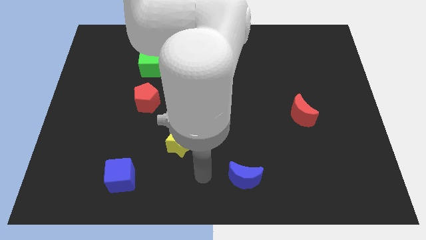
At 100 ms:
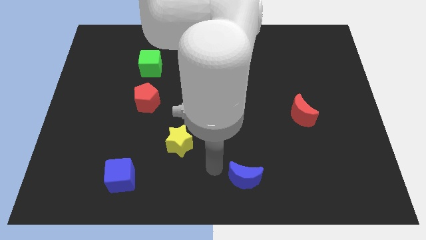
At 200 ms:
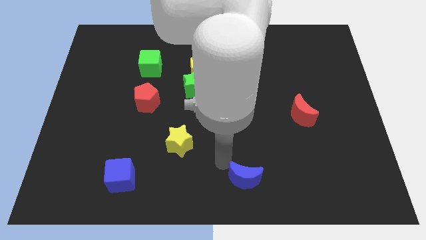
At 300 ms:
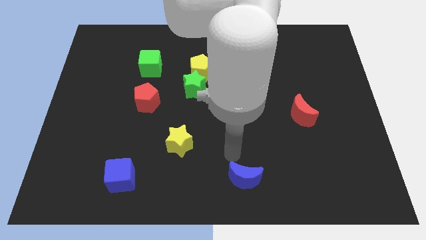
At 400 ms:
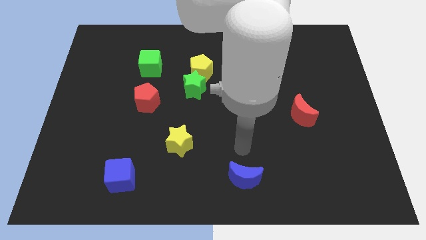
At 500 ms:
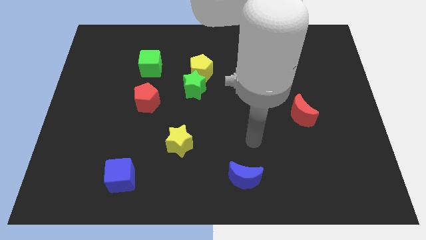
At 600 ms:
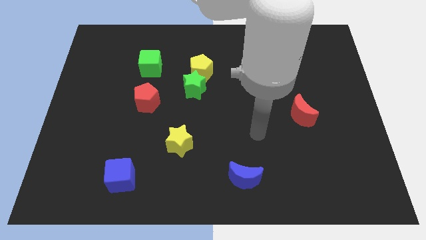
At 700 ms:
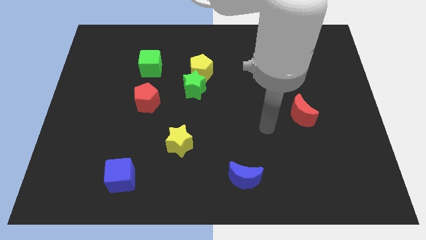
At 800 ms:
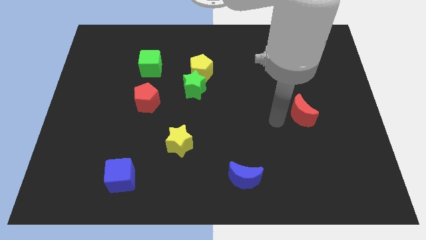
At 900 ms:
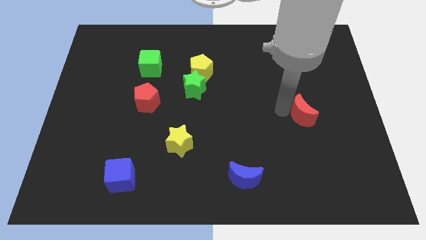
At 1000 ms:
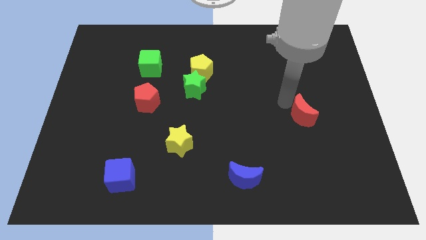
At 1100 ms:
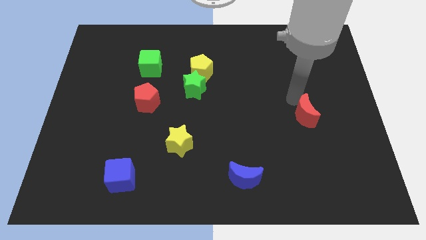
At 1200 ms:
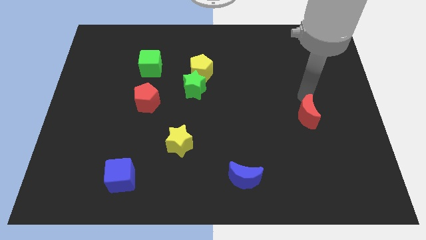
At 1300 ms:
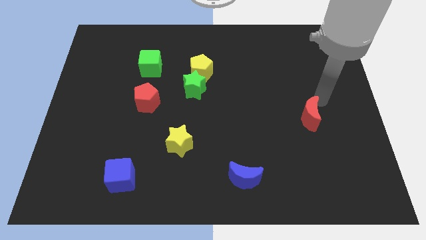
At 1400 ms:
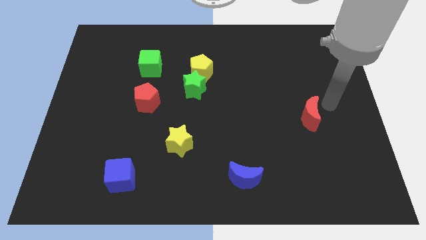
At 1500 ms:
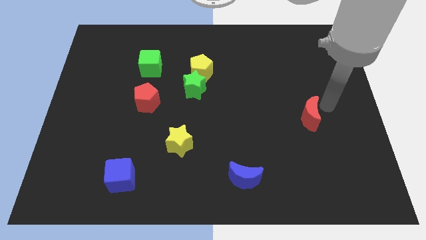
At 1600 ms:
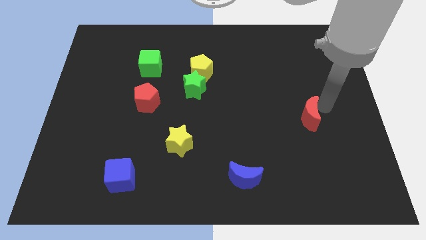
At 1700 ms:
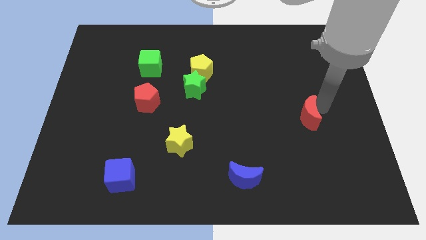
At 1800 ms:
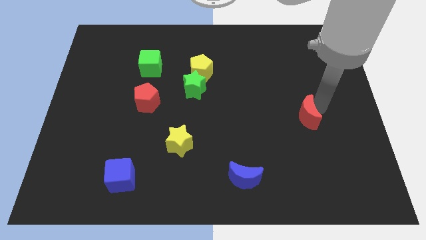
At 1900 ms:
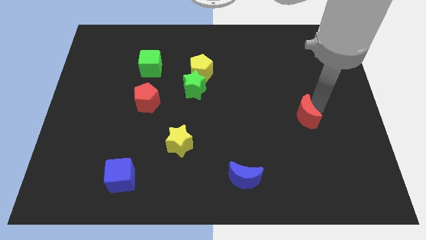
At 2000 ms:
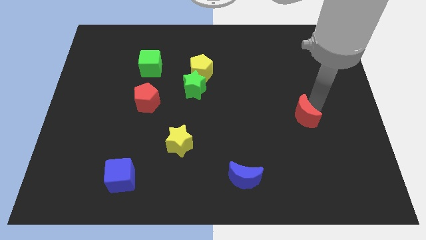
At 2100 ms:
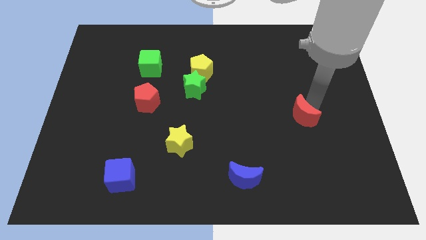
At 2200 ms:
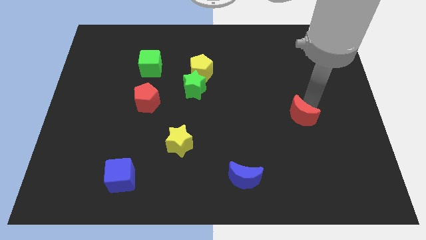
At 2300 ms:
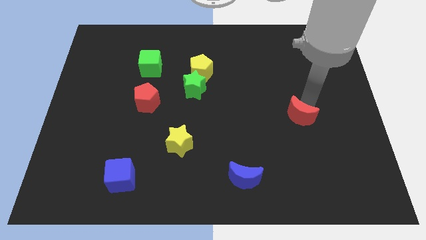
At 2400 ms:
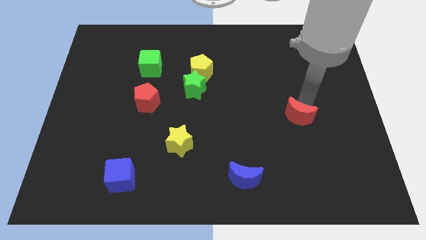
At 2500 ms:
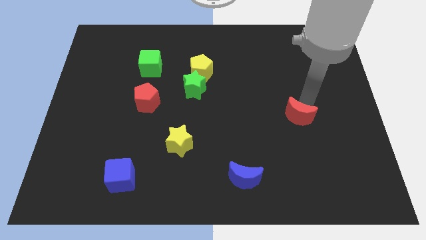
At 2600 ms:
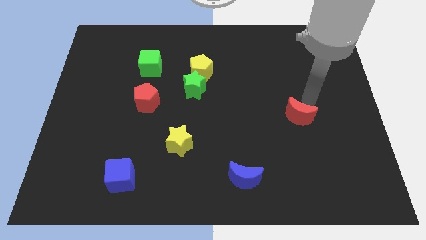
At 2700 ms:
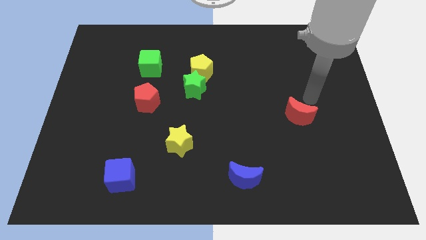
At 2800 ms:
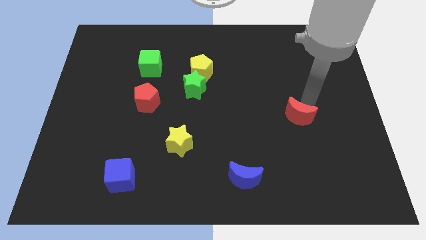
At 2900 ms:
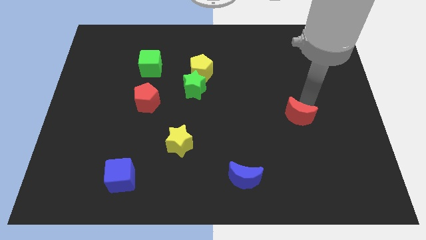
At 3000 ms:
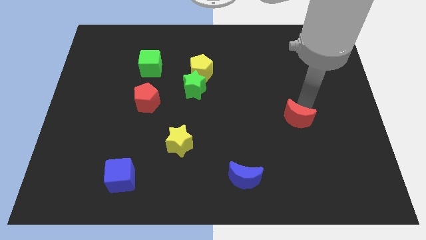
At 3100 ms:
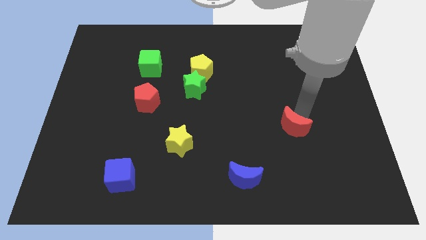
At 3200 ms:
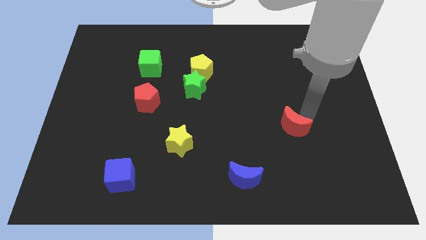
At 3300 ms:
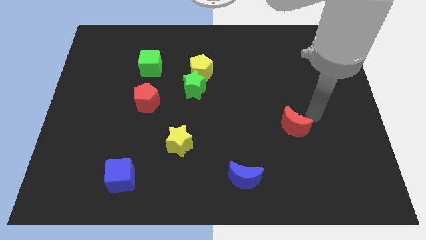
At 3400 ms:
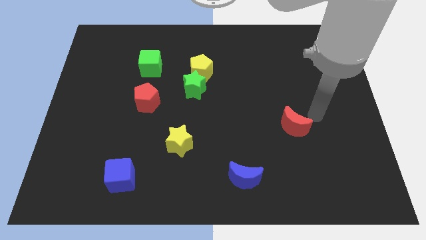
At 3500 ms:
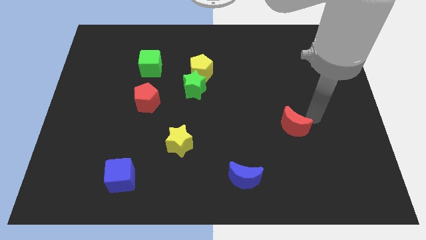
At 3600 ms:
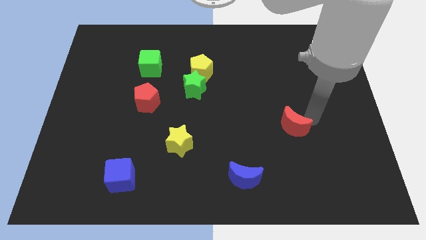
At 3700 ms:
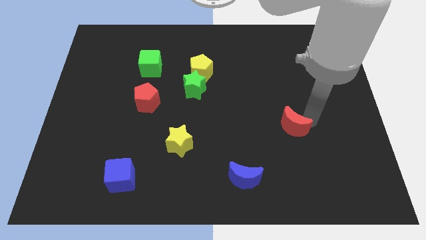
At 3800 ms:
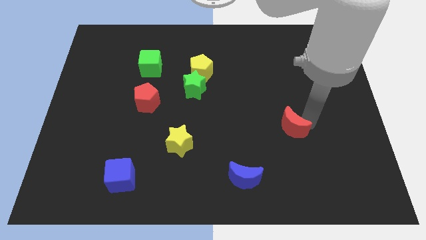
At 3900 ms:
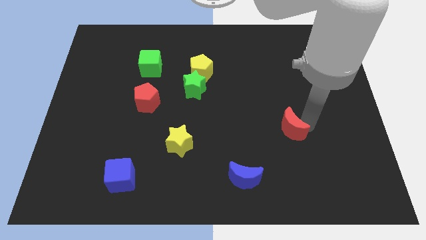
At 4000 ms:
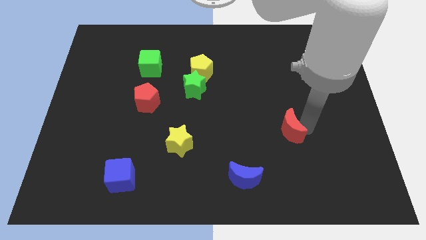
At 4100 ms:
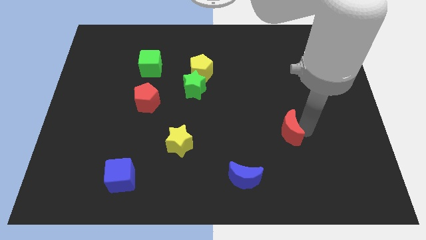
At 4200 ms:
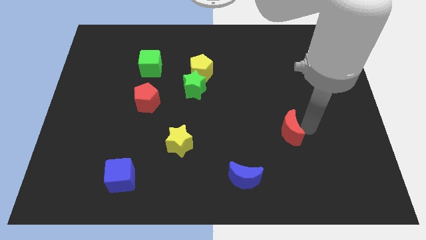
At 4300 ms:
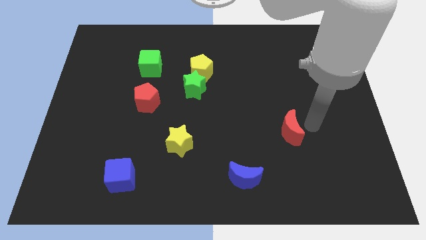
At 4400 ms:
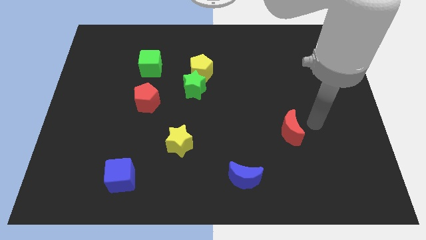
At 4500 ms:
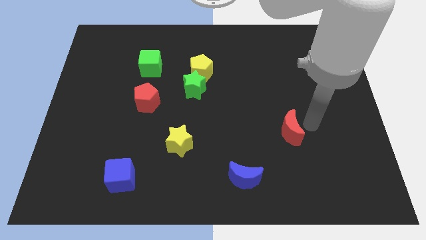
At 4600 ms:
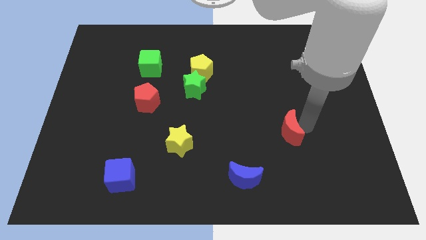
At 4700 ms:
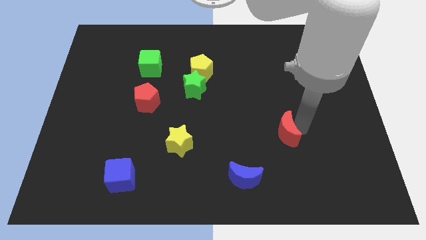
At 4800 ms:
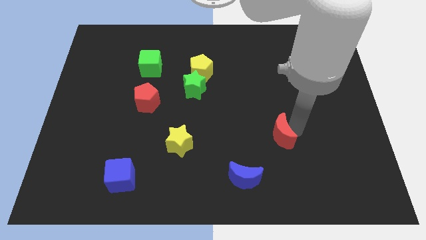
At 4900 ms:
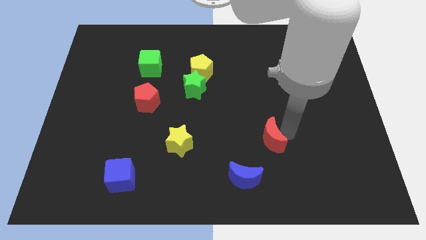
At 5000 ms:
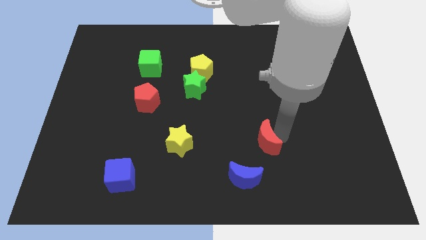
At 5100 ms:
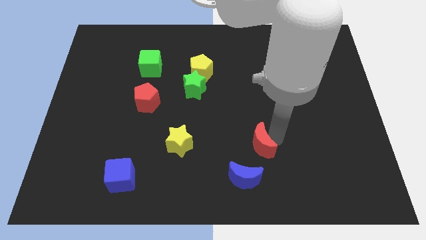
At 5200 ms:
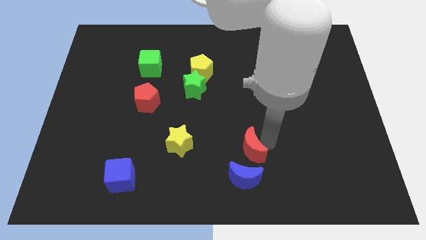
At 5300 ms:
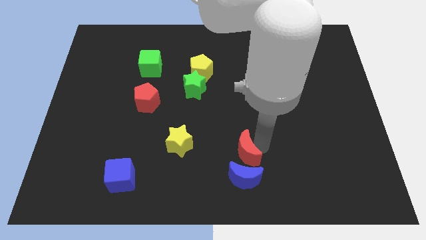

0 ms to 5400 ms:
put the red moon to the top left of the blue moon

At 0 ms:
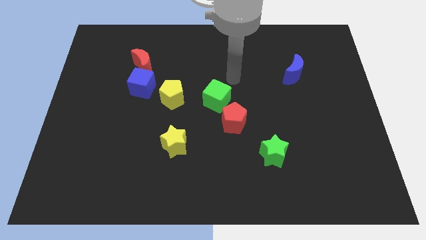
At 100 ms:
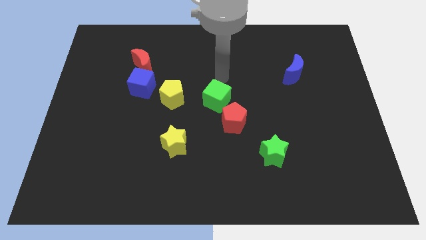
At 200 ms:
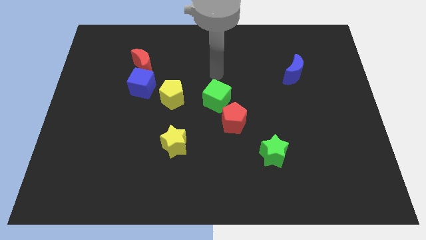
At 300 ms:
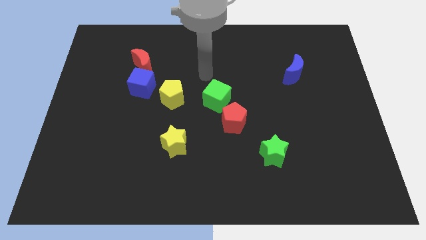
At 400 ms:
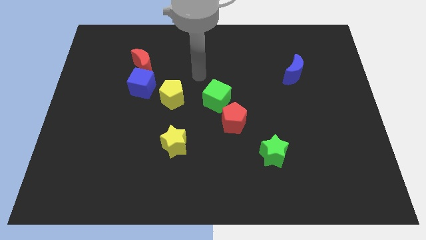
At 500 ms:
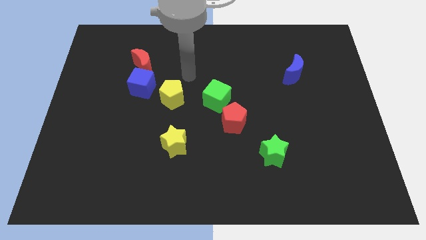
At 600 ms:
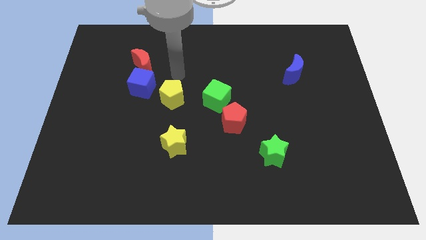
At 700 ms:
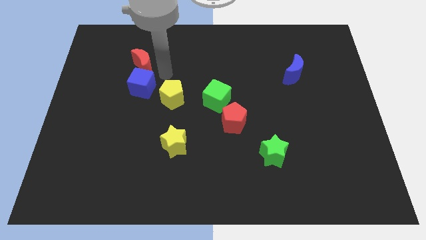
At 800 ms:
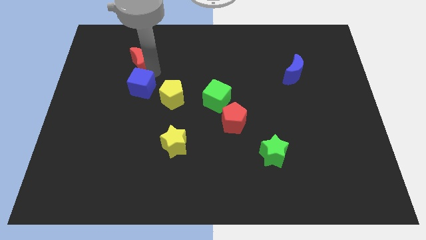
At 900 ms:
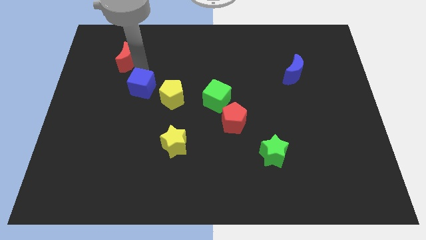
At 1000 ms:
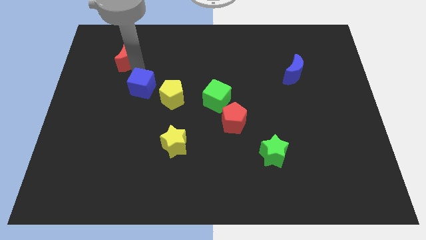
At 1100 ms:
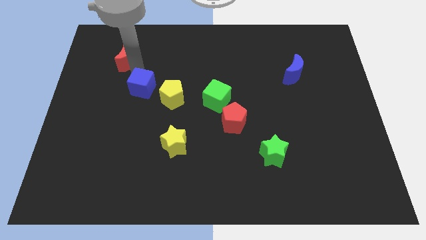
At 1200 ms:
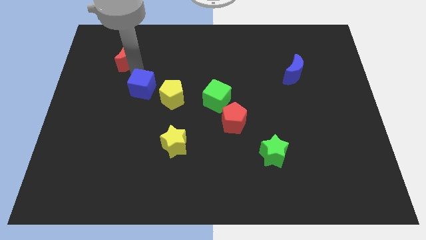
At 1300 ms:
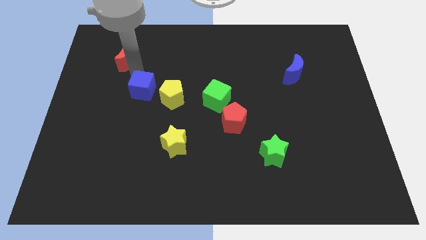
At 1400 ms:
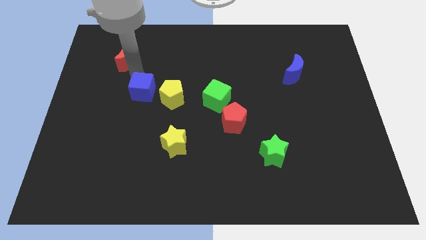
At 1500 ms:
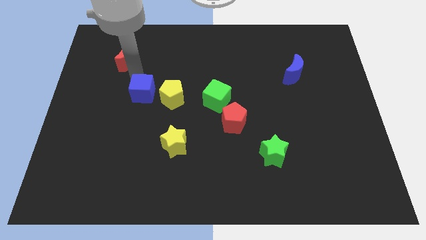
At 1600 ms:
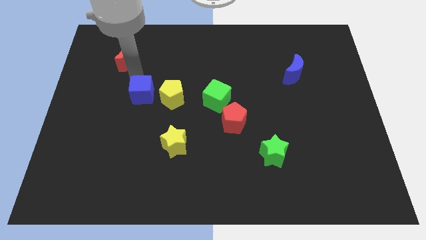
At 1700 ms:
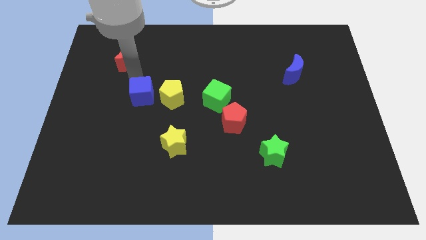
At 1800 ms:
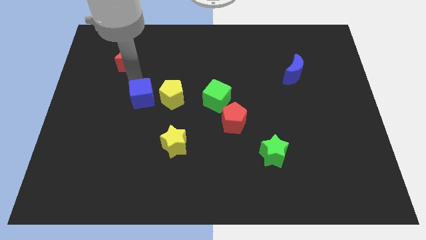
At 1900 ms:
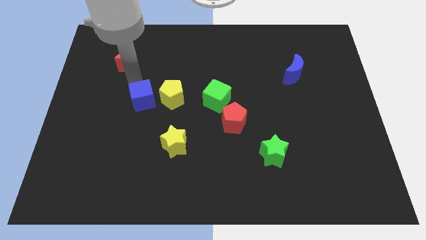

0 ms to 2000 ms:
move the blue cube to the bottom left of the yellow pentagon
